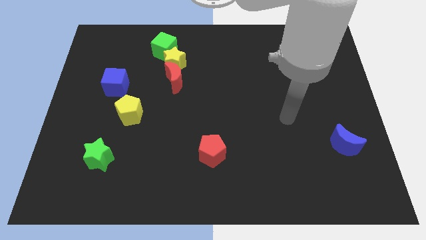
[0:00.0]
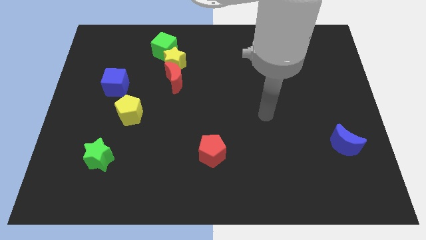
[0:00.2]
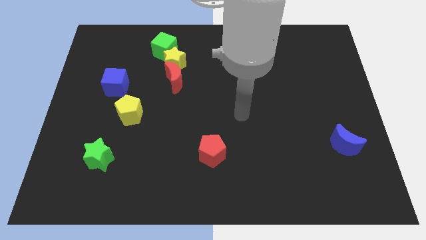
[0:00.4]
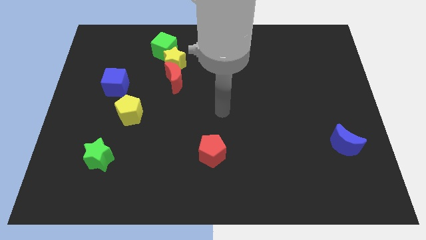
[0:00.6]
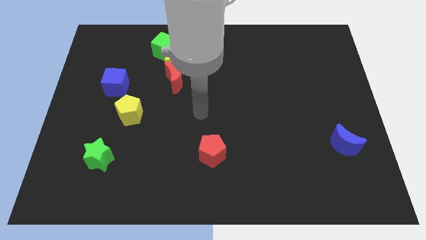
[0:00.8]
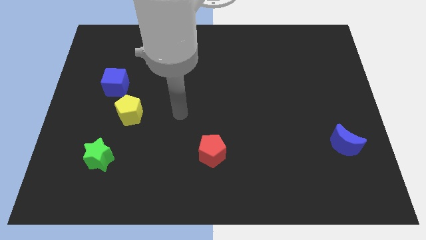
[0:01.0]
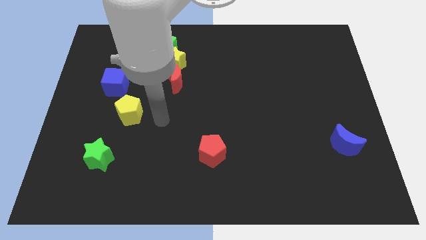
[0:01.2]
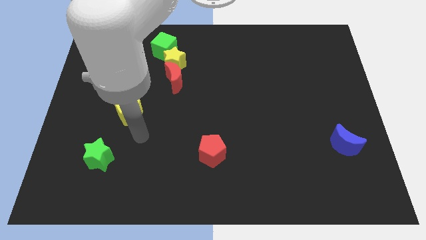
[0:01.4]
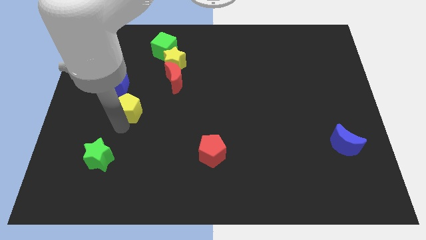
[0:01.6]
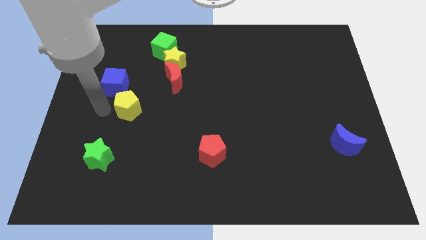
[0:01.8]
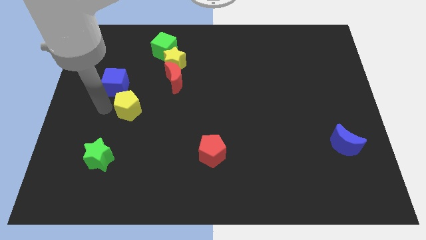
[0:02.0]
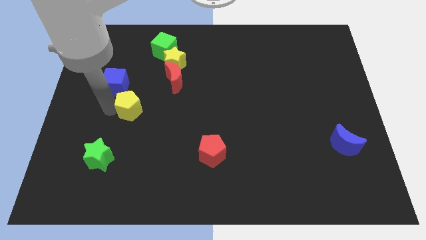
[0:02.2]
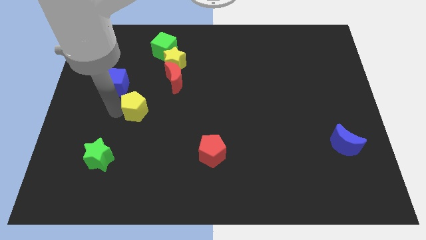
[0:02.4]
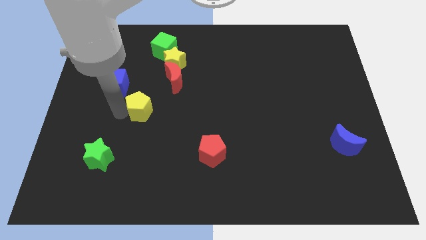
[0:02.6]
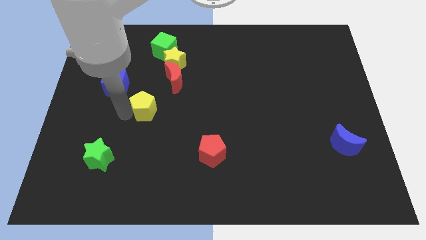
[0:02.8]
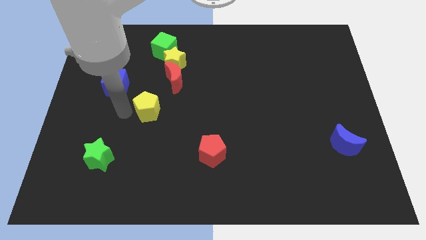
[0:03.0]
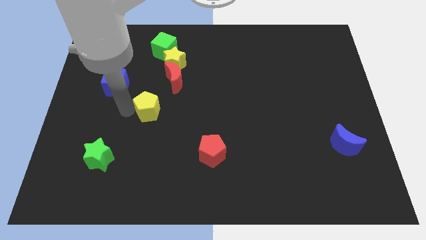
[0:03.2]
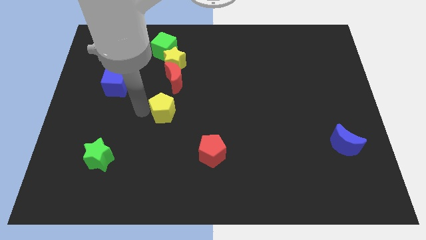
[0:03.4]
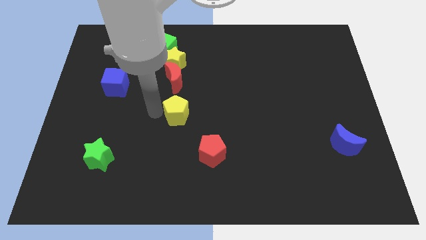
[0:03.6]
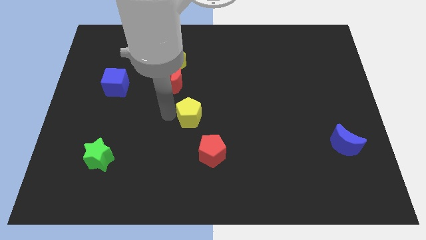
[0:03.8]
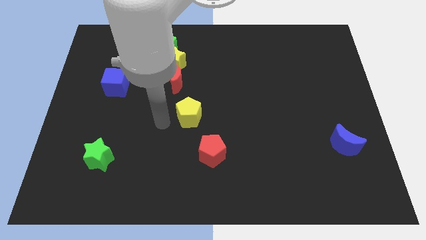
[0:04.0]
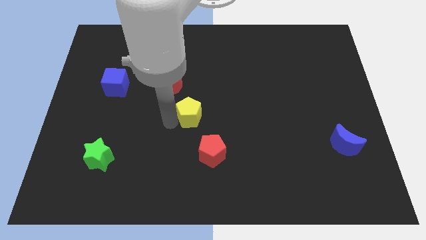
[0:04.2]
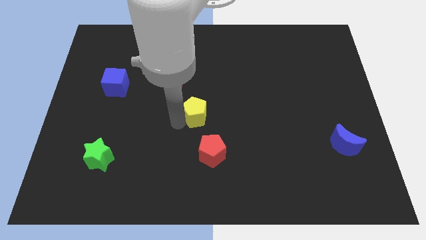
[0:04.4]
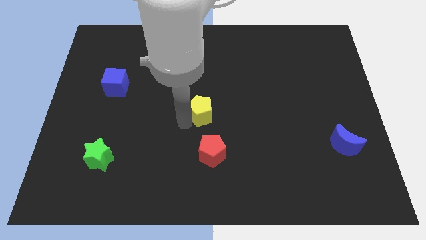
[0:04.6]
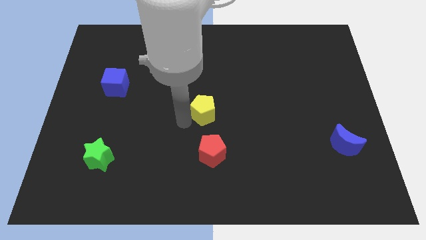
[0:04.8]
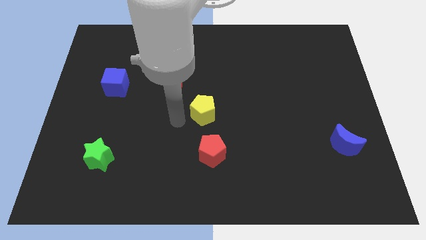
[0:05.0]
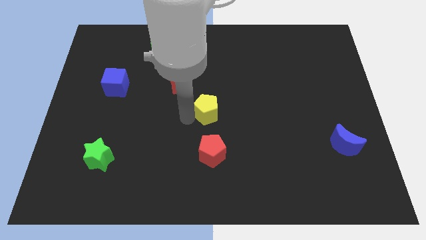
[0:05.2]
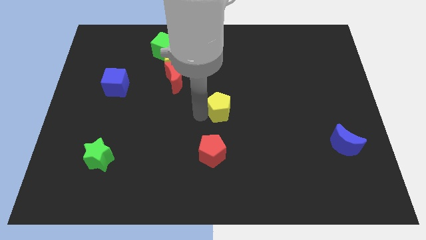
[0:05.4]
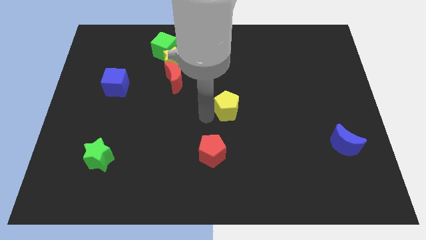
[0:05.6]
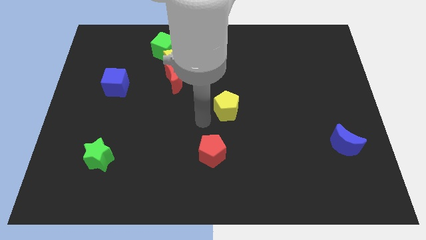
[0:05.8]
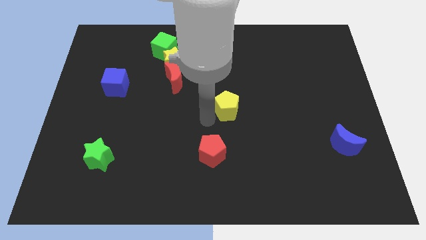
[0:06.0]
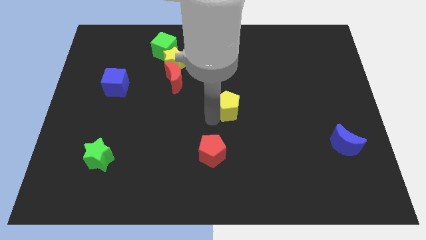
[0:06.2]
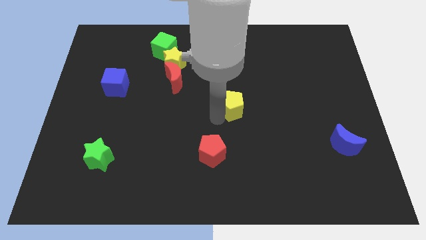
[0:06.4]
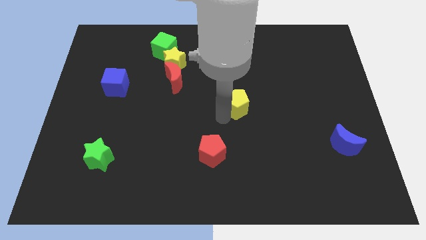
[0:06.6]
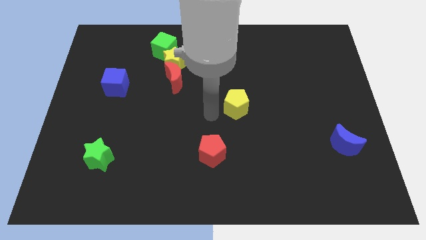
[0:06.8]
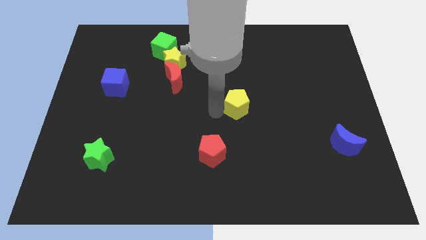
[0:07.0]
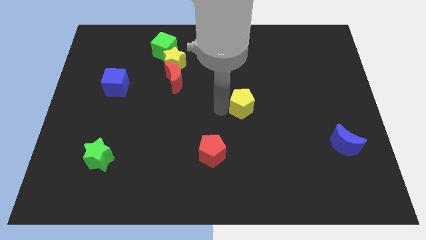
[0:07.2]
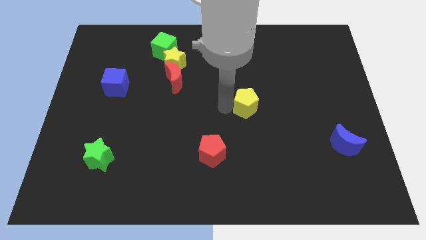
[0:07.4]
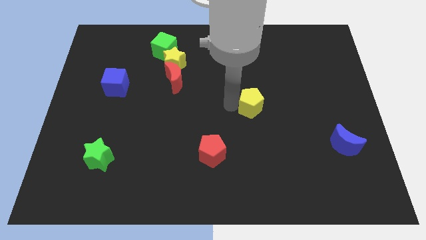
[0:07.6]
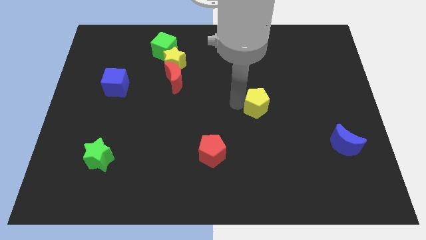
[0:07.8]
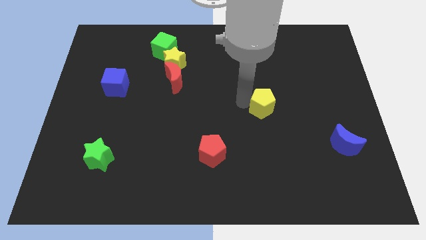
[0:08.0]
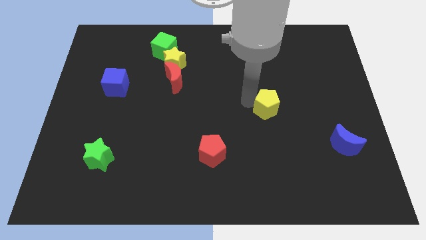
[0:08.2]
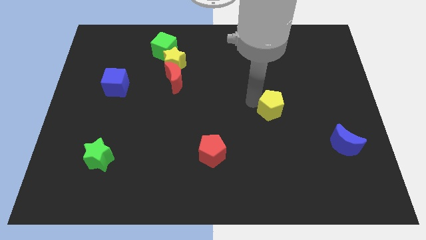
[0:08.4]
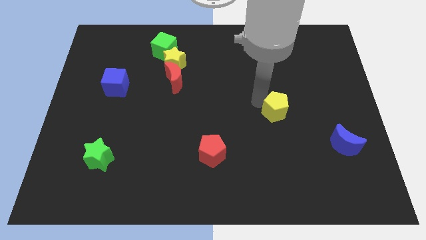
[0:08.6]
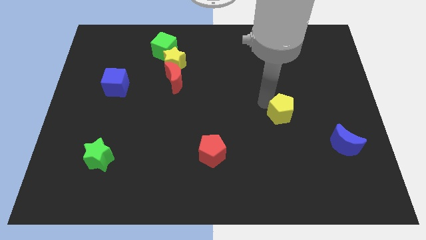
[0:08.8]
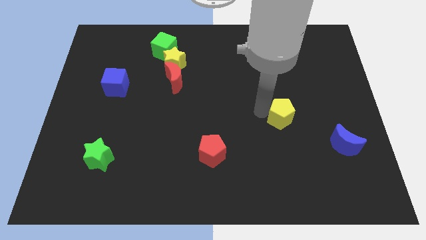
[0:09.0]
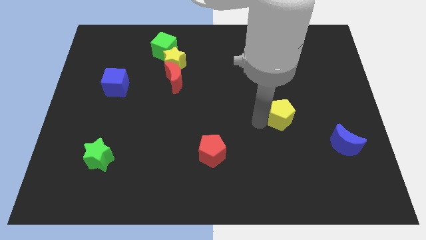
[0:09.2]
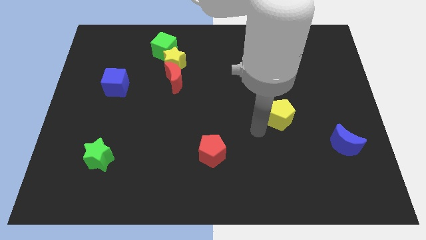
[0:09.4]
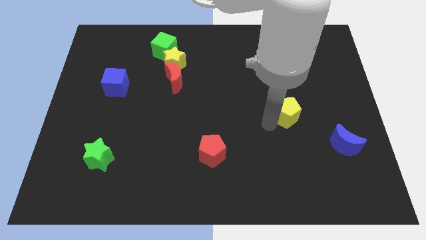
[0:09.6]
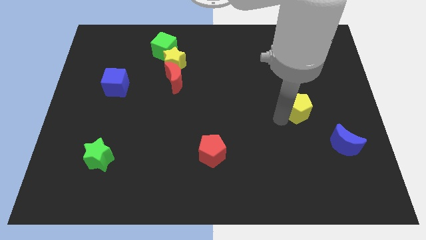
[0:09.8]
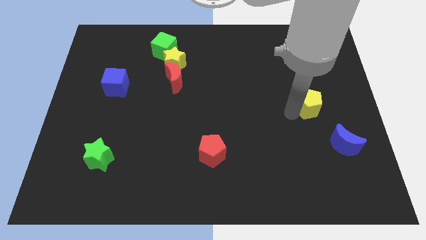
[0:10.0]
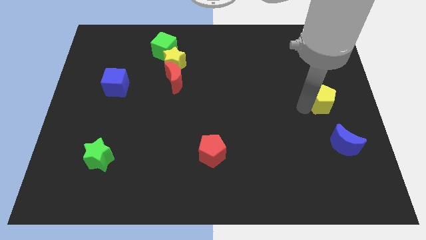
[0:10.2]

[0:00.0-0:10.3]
move the yellow pentagon to the center right

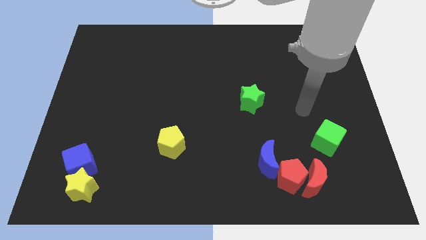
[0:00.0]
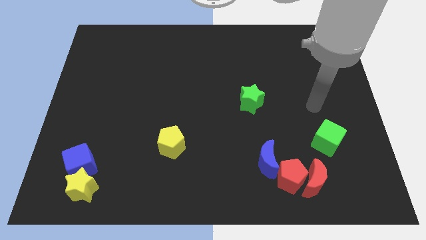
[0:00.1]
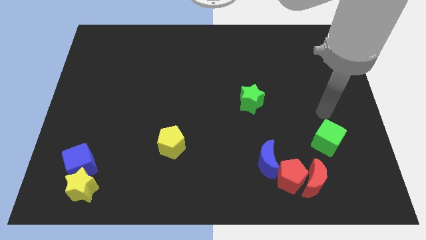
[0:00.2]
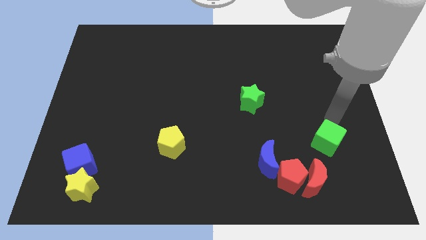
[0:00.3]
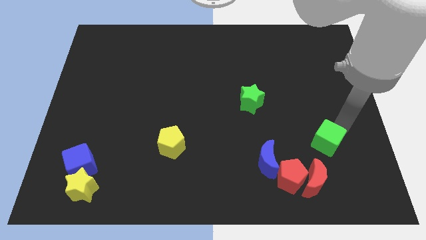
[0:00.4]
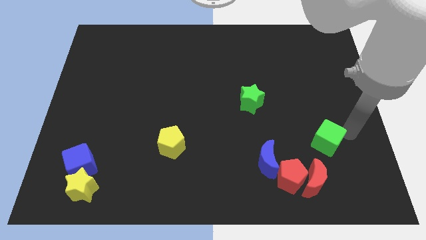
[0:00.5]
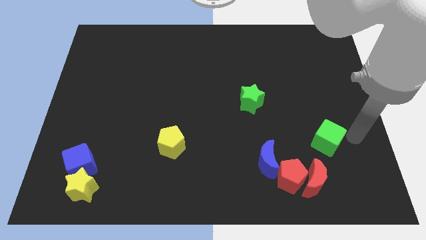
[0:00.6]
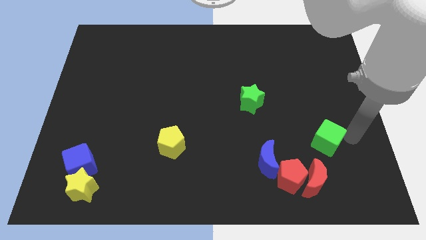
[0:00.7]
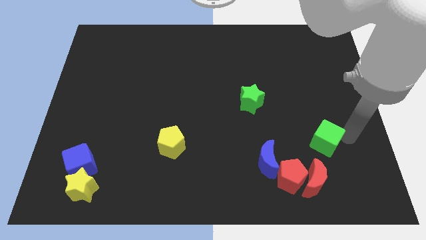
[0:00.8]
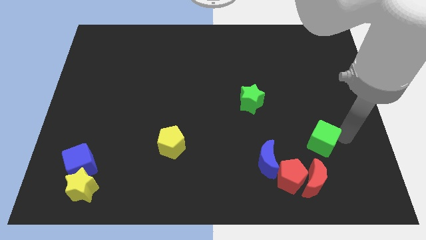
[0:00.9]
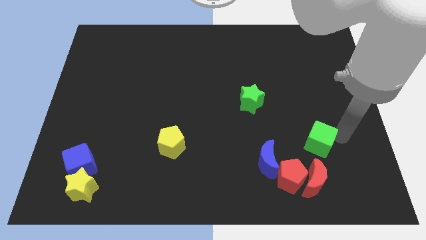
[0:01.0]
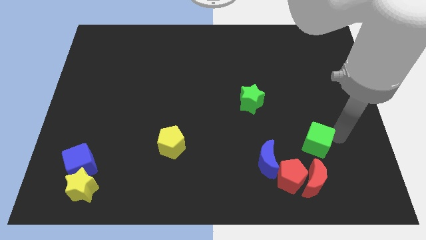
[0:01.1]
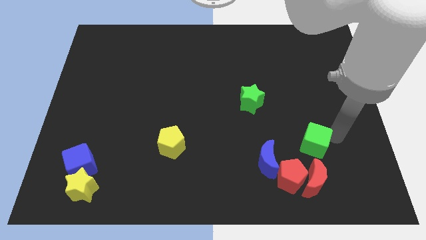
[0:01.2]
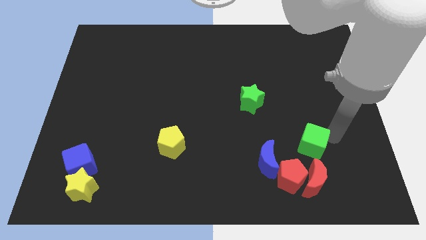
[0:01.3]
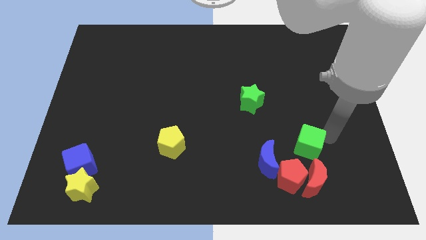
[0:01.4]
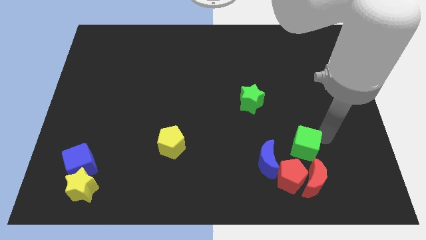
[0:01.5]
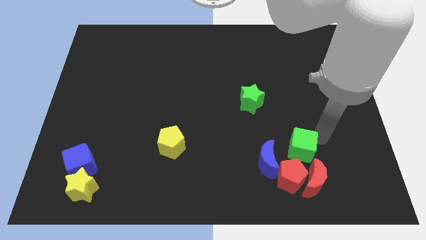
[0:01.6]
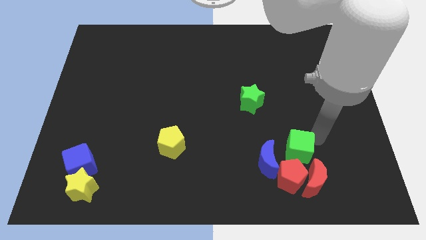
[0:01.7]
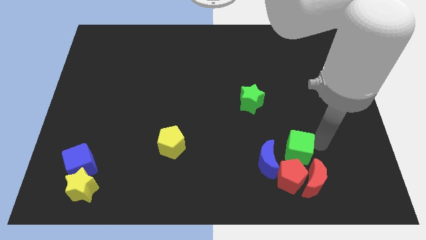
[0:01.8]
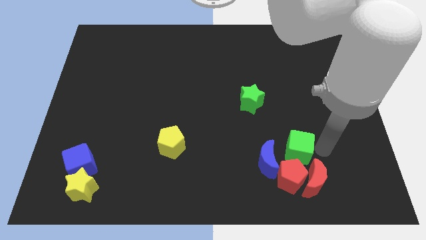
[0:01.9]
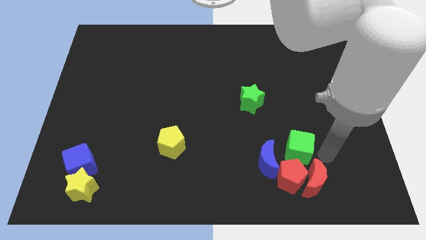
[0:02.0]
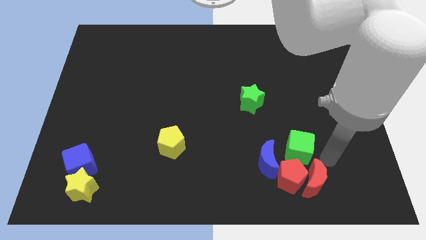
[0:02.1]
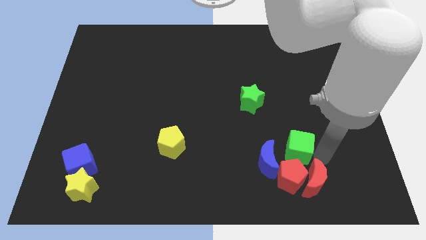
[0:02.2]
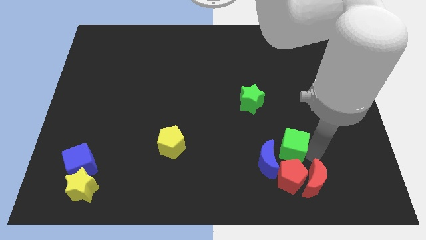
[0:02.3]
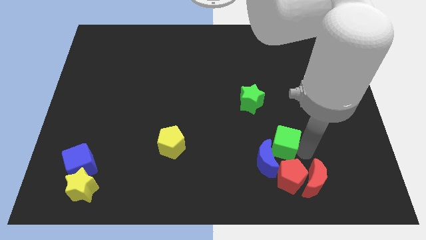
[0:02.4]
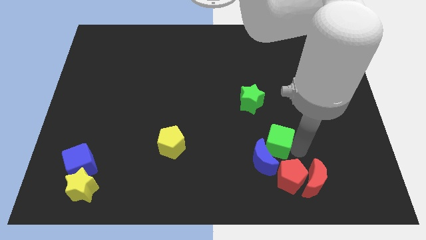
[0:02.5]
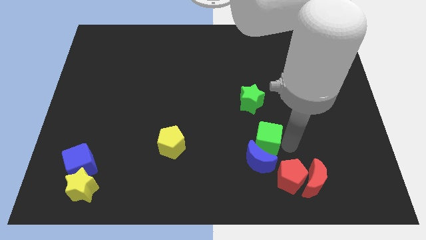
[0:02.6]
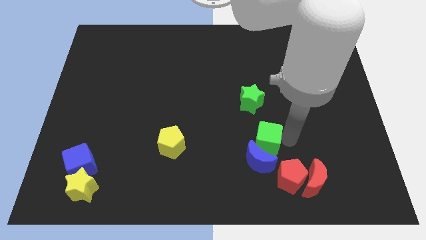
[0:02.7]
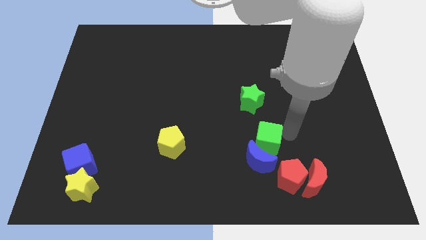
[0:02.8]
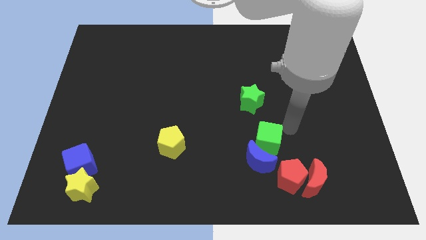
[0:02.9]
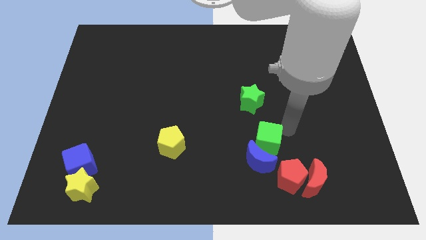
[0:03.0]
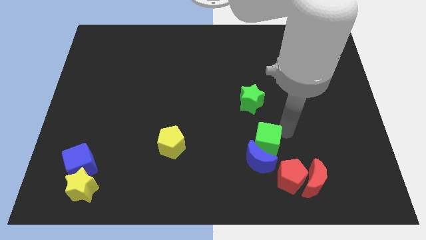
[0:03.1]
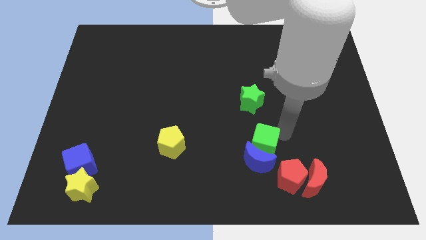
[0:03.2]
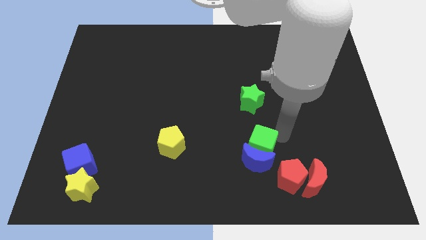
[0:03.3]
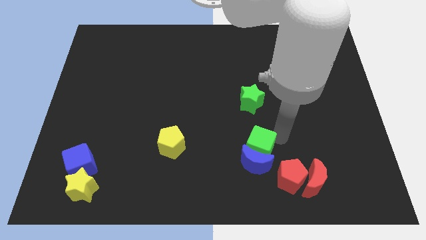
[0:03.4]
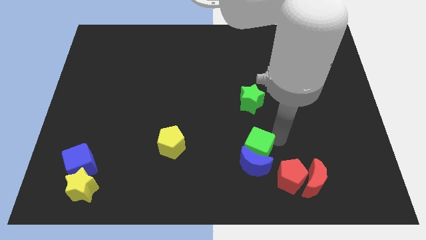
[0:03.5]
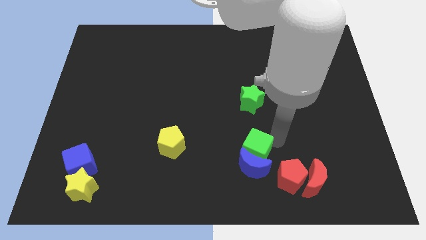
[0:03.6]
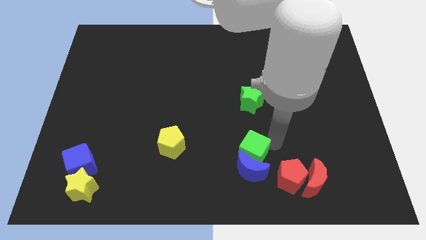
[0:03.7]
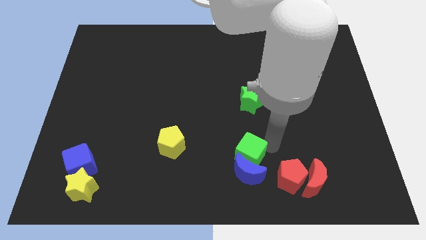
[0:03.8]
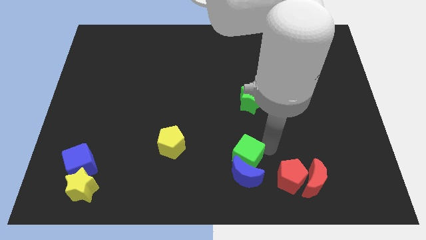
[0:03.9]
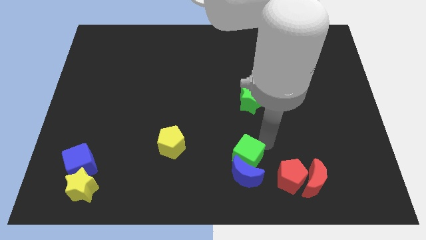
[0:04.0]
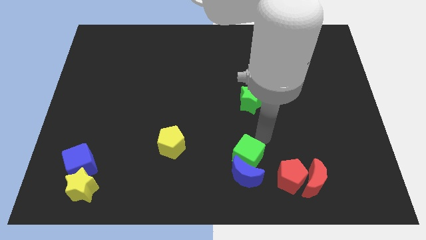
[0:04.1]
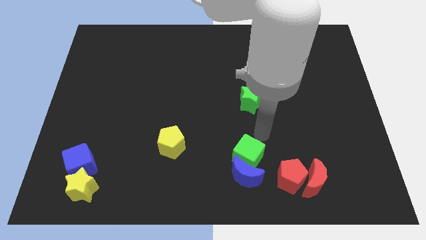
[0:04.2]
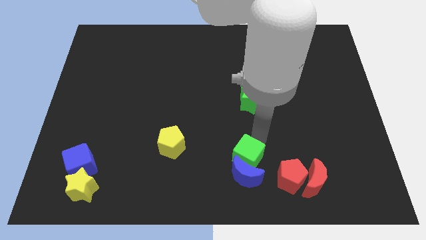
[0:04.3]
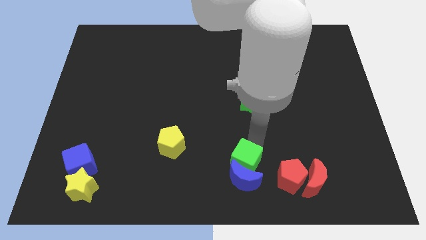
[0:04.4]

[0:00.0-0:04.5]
put the green cube to the bottom
